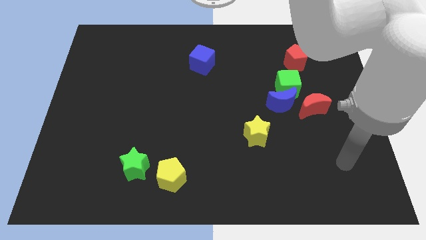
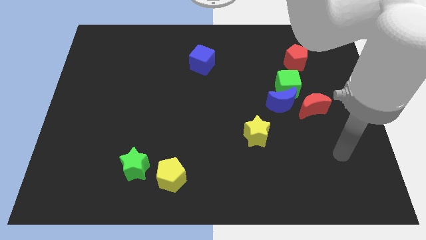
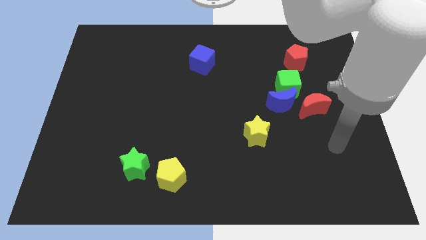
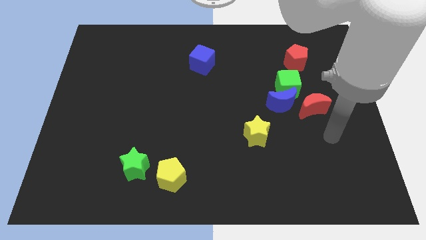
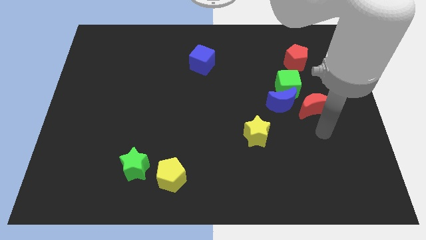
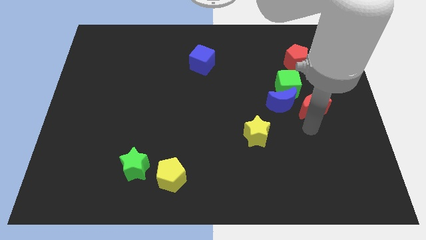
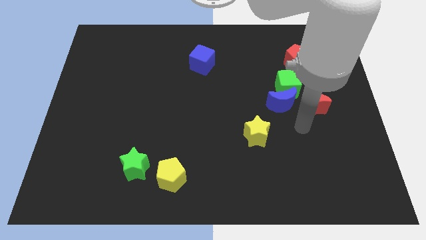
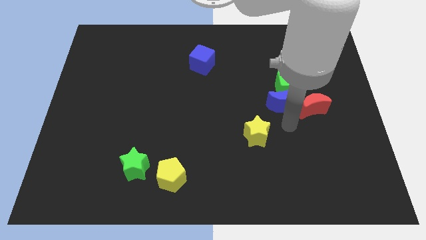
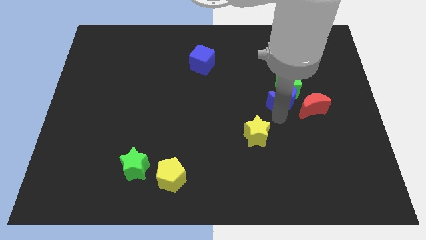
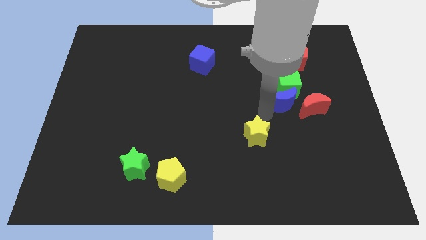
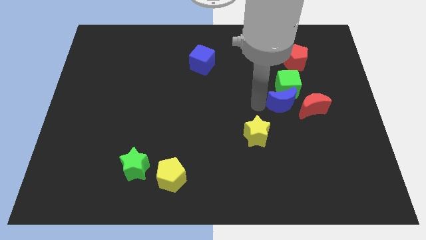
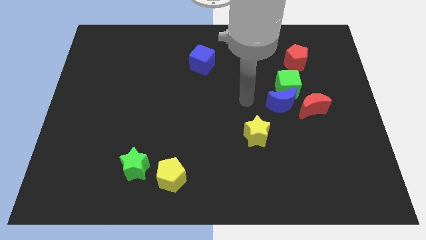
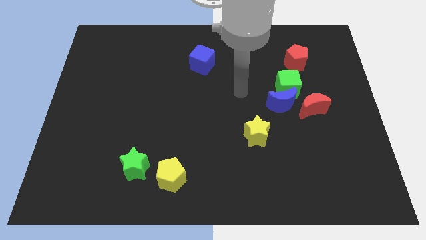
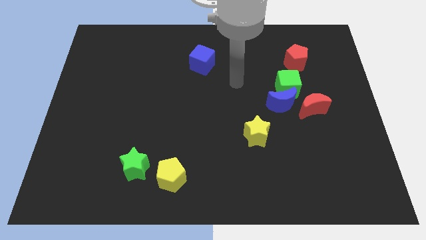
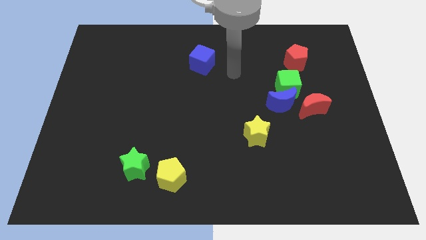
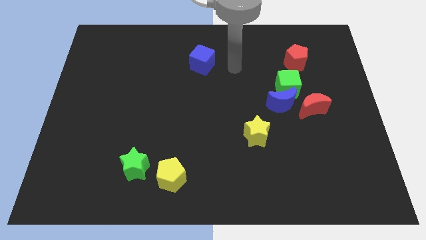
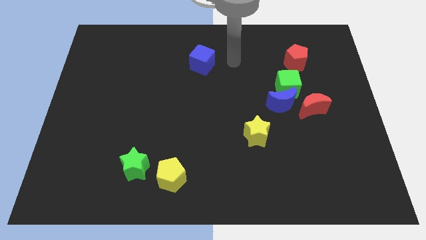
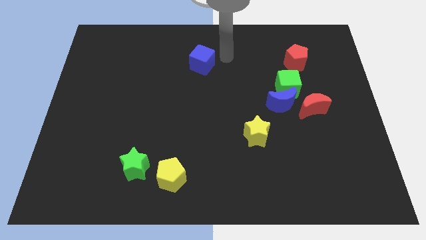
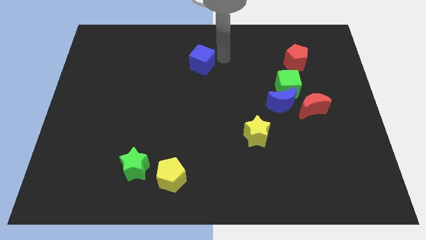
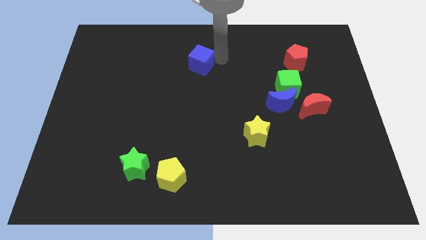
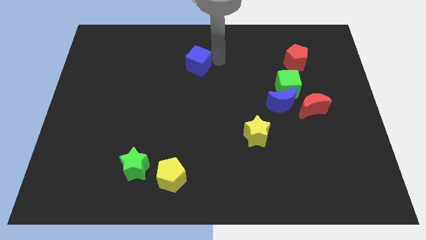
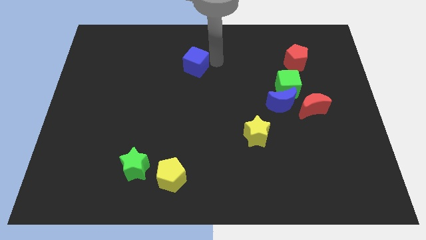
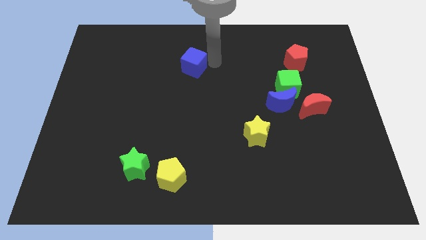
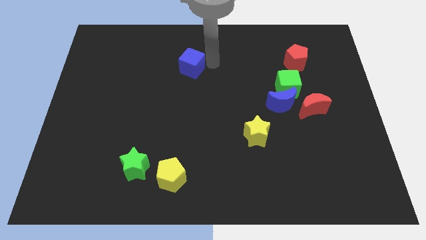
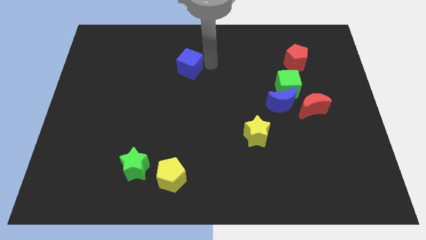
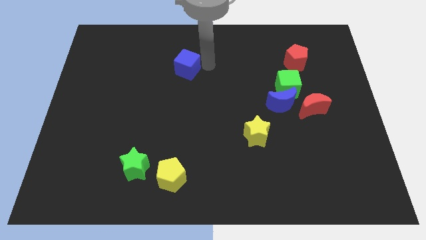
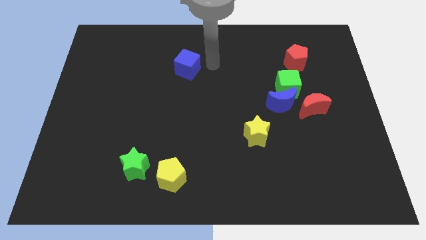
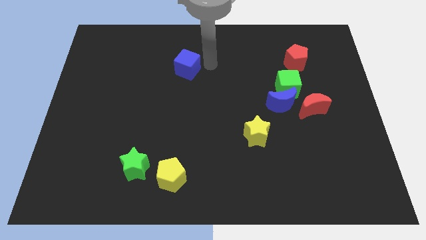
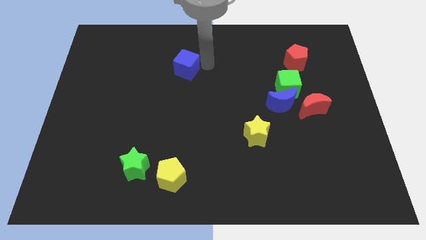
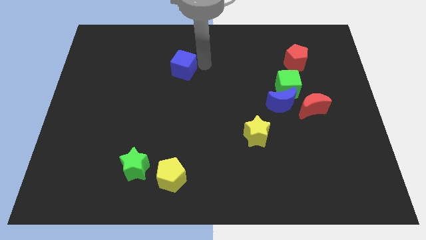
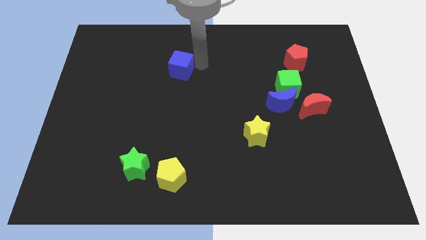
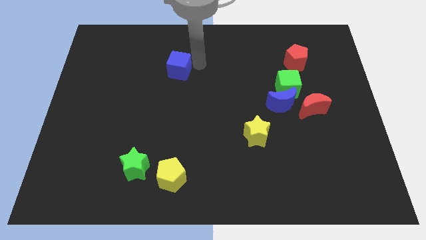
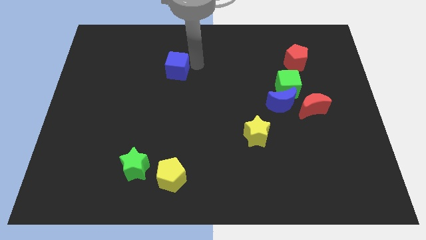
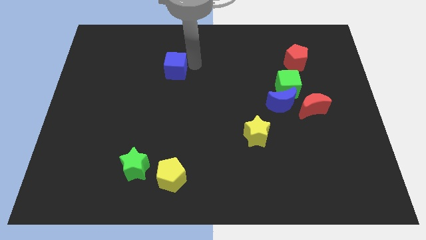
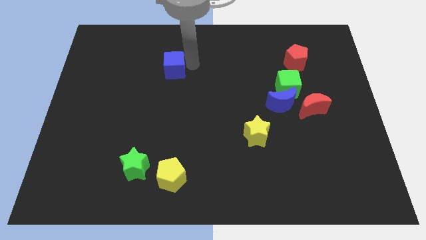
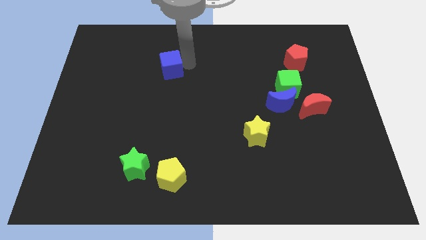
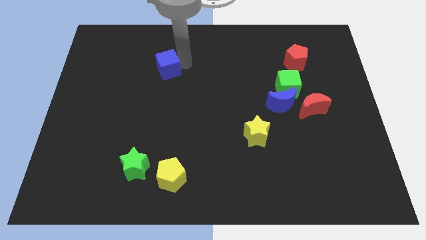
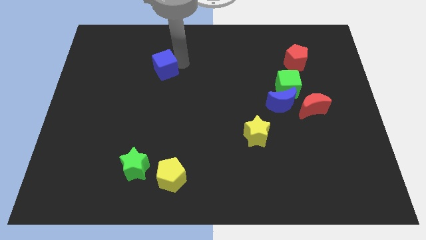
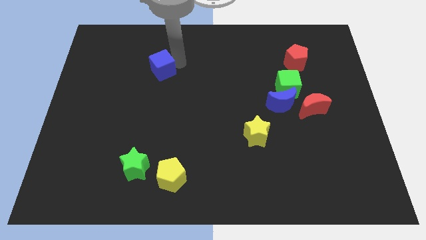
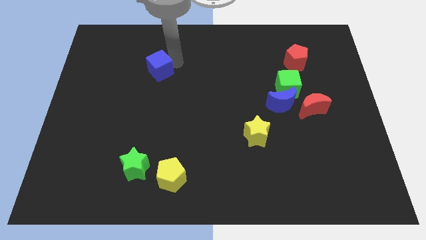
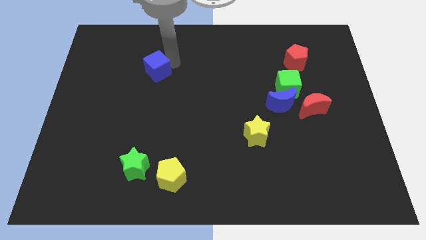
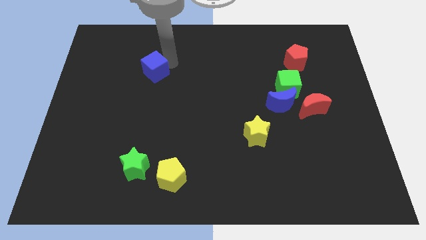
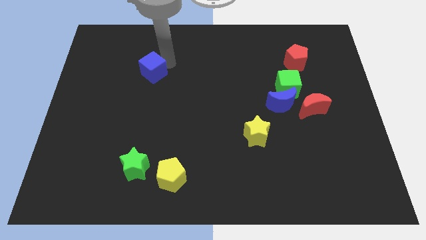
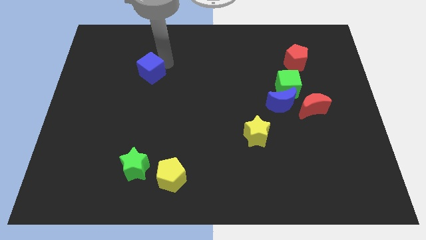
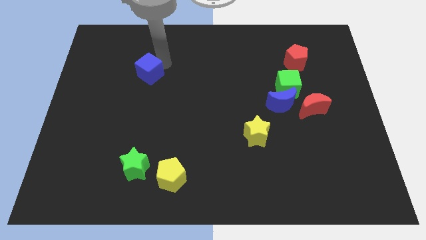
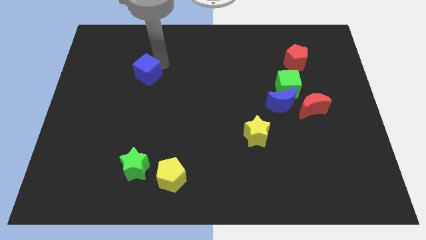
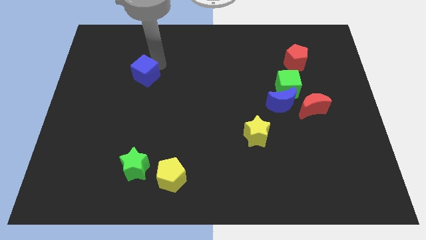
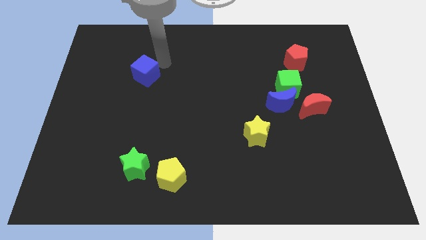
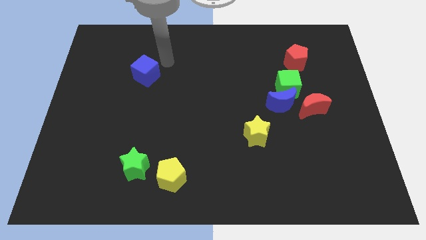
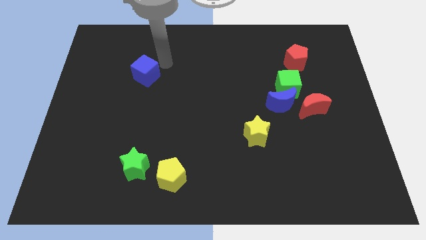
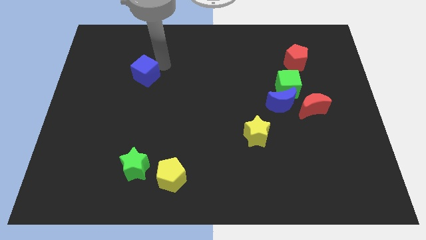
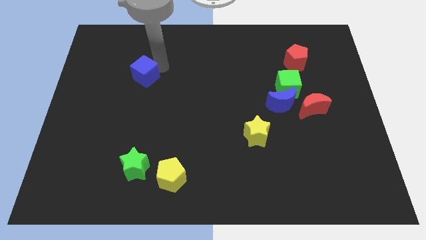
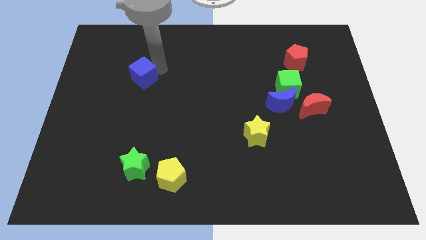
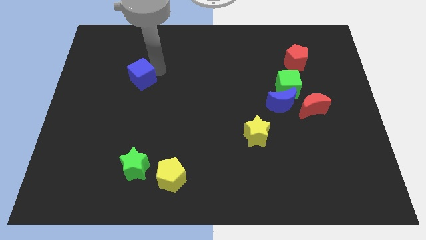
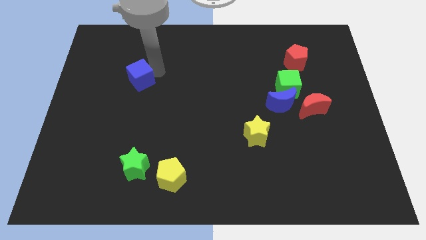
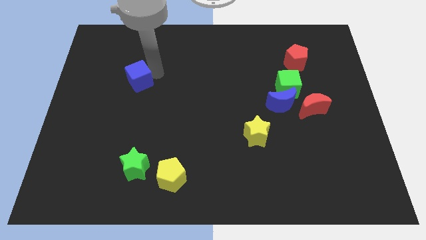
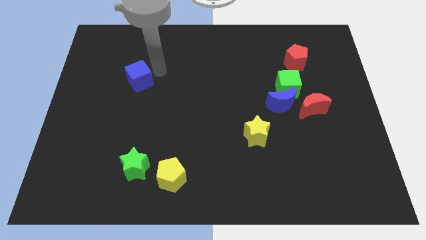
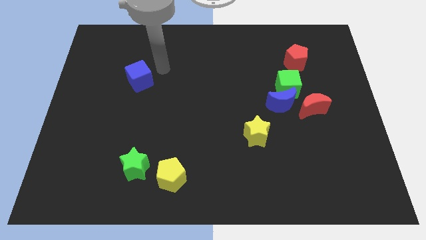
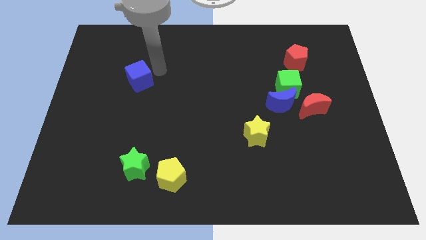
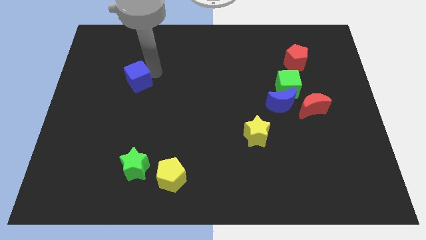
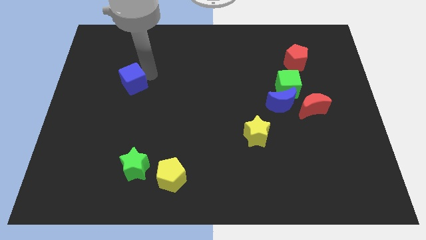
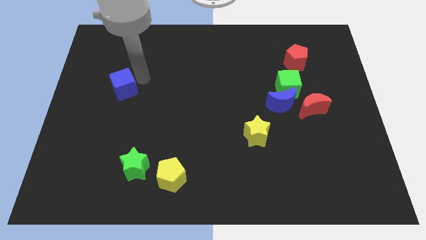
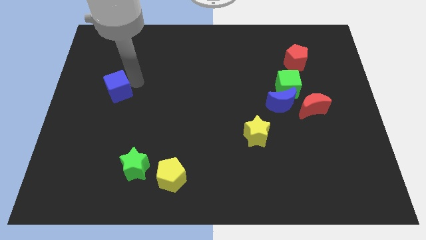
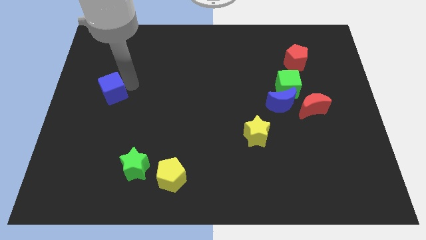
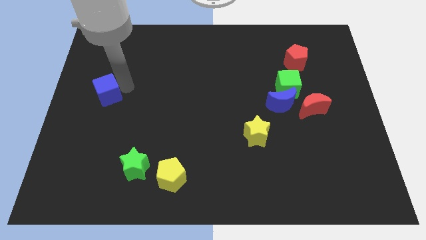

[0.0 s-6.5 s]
move the blue cube to the center left
